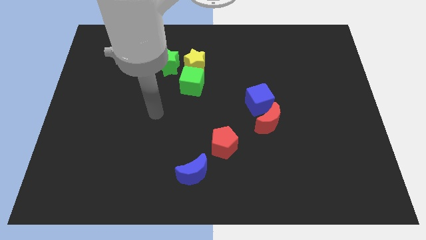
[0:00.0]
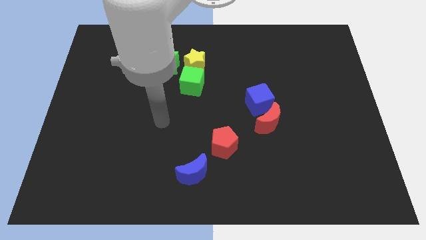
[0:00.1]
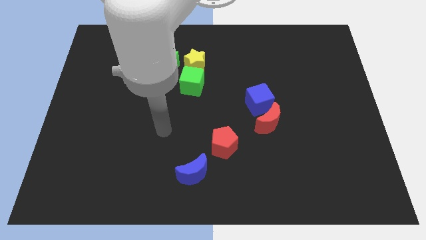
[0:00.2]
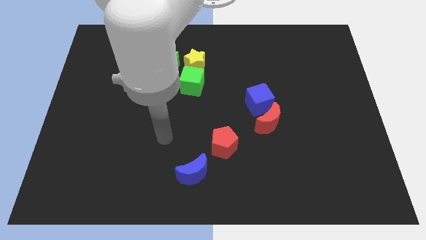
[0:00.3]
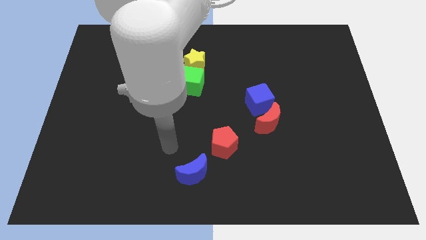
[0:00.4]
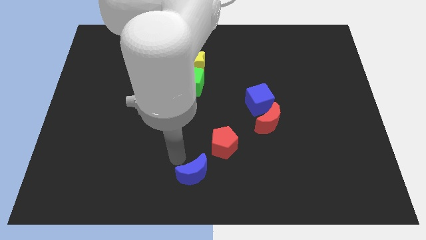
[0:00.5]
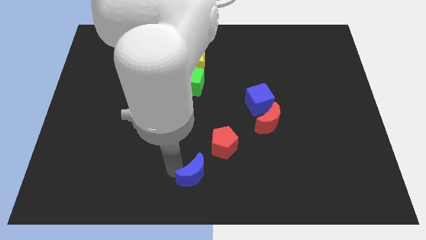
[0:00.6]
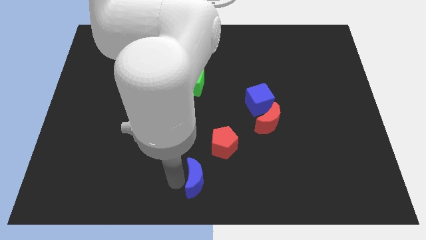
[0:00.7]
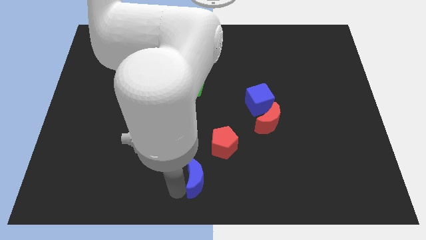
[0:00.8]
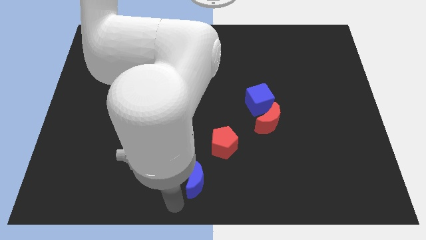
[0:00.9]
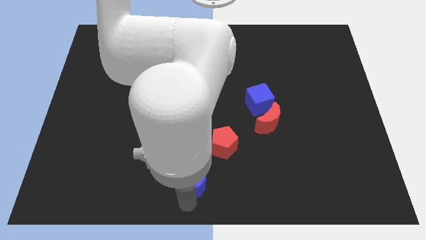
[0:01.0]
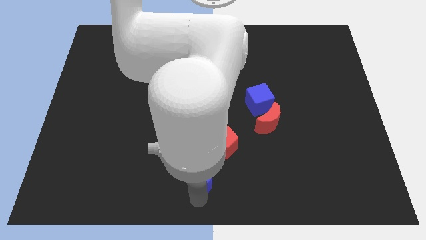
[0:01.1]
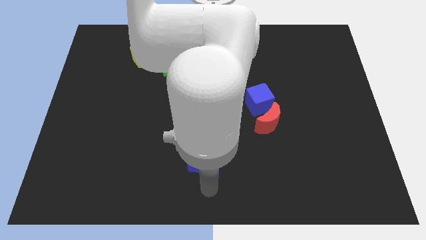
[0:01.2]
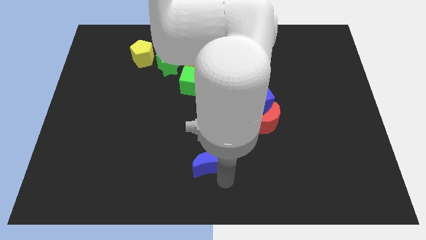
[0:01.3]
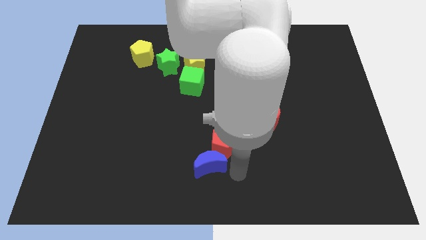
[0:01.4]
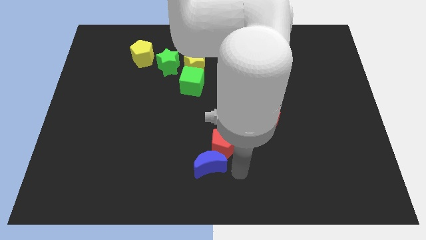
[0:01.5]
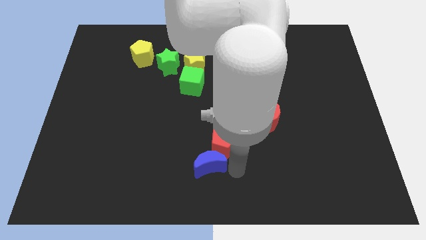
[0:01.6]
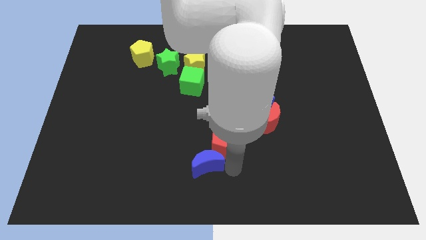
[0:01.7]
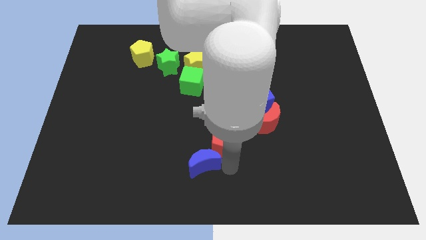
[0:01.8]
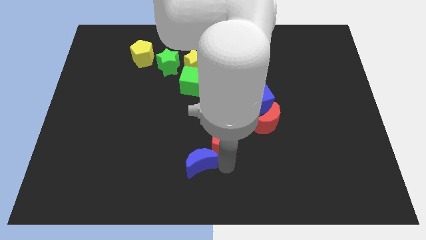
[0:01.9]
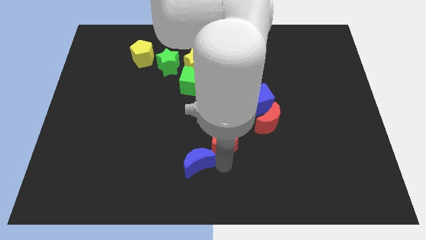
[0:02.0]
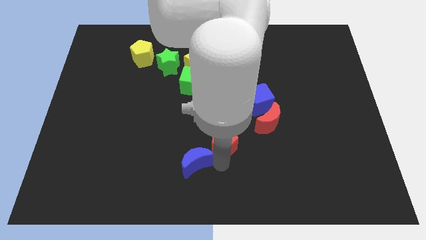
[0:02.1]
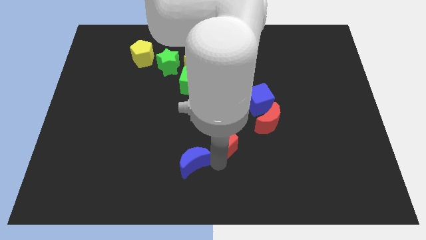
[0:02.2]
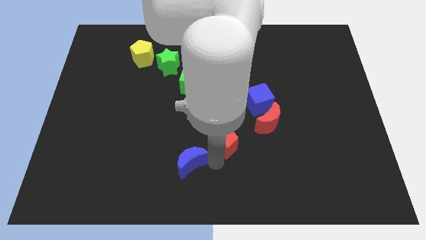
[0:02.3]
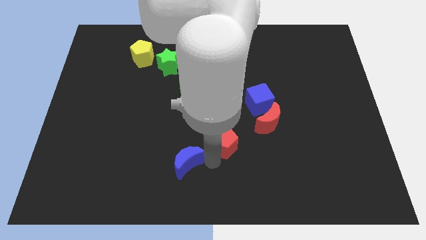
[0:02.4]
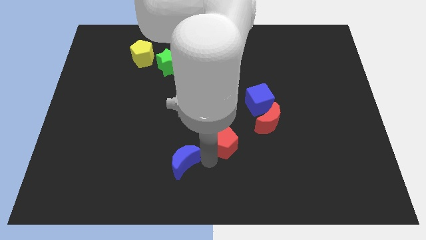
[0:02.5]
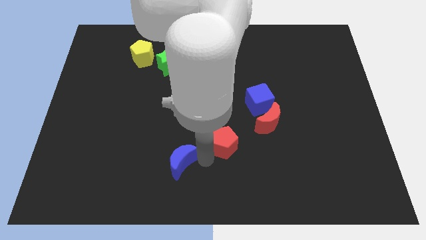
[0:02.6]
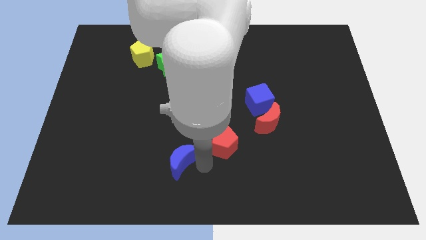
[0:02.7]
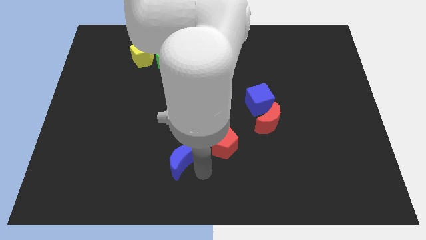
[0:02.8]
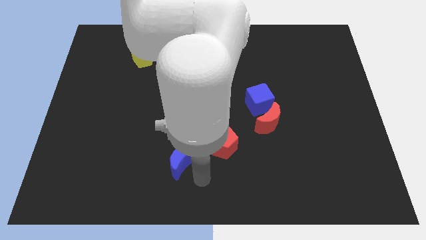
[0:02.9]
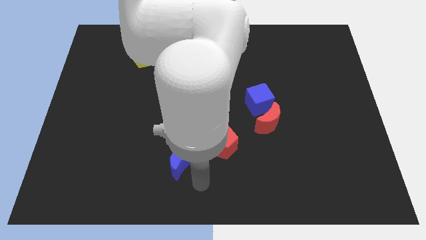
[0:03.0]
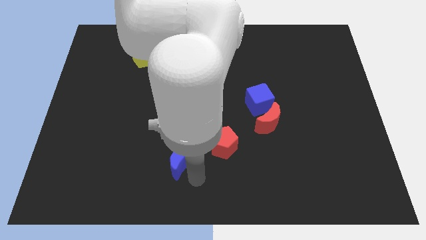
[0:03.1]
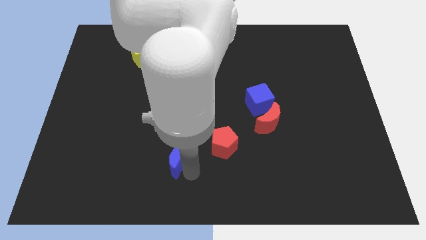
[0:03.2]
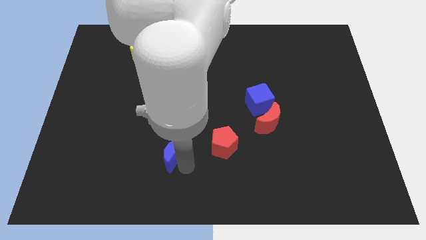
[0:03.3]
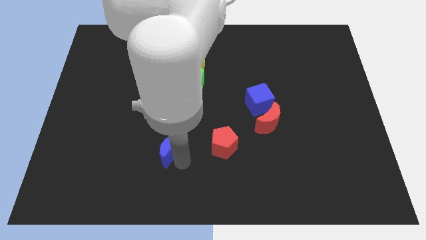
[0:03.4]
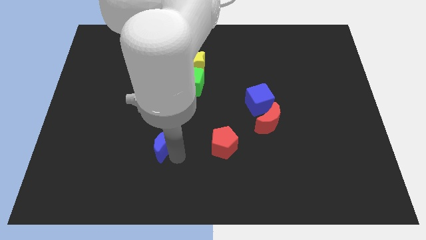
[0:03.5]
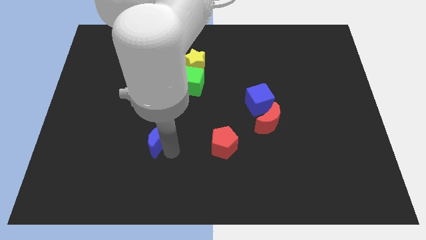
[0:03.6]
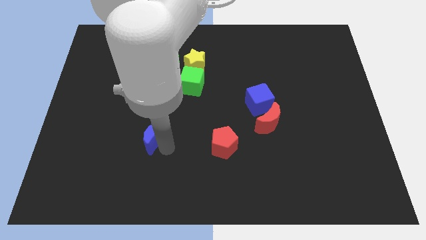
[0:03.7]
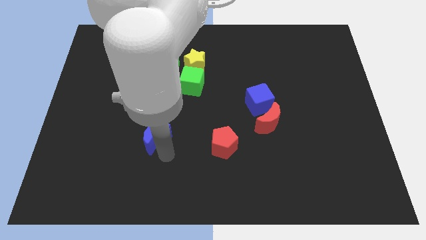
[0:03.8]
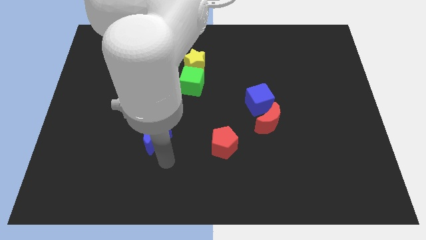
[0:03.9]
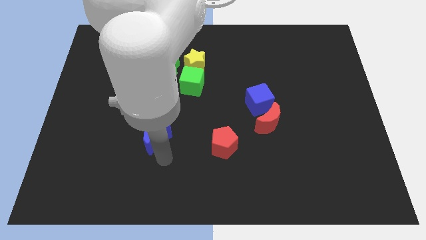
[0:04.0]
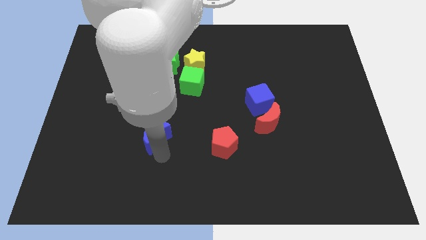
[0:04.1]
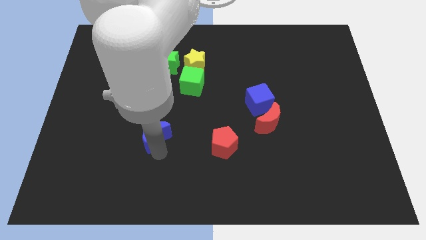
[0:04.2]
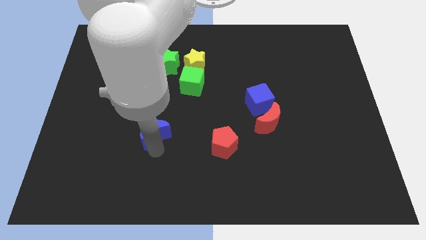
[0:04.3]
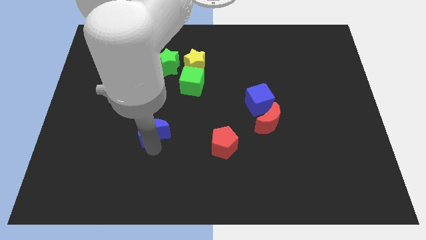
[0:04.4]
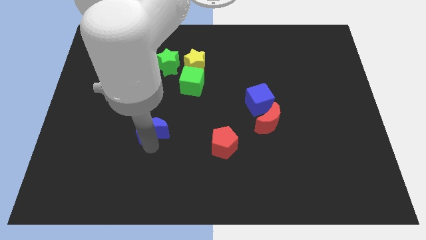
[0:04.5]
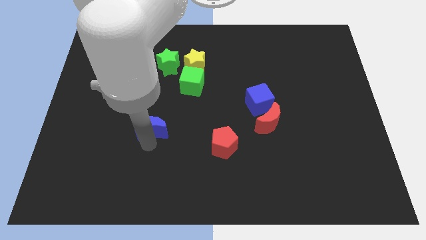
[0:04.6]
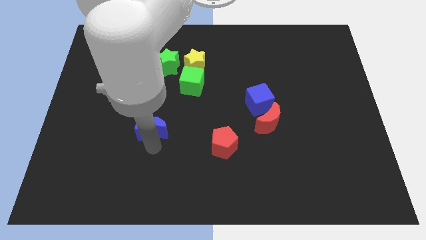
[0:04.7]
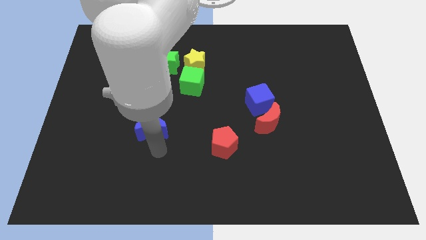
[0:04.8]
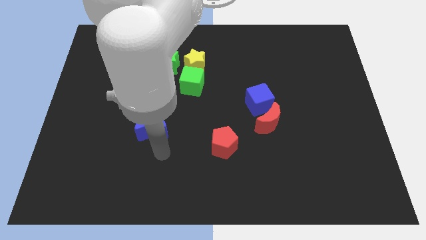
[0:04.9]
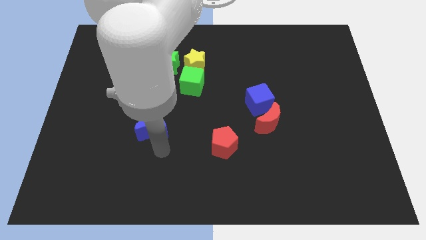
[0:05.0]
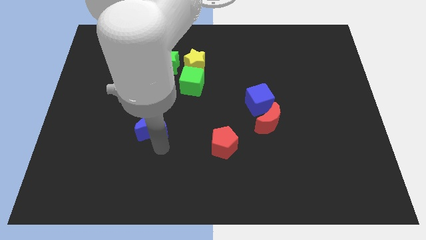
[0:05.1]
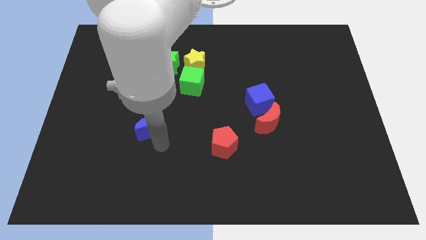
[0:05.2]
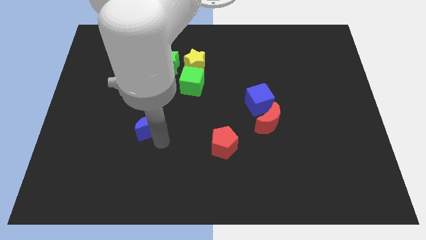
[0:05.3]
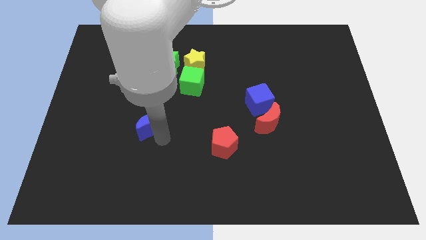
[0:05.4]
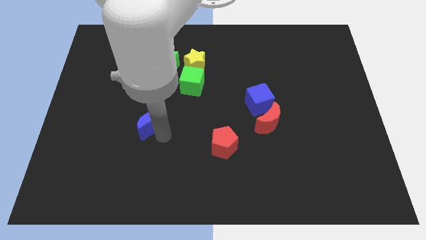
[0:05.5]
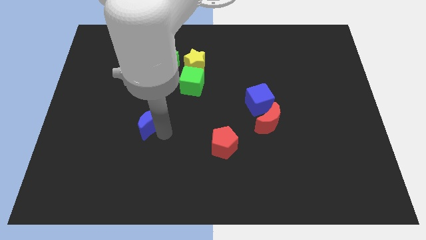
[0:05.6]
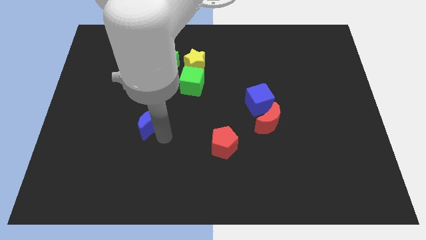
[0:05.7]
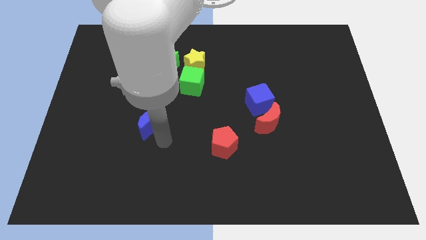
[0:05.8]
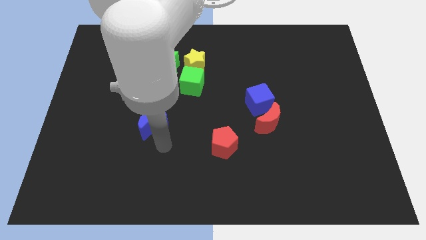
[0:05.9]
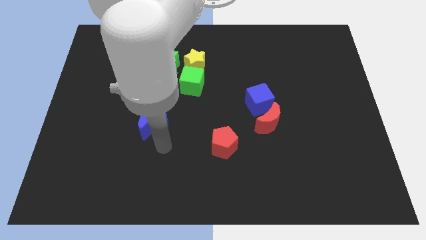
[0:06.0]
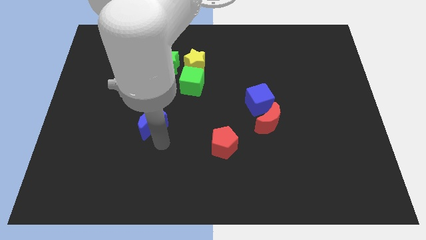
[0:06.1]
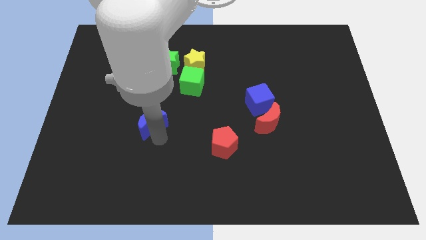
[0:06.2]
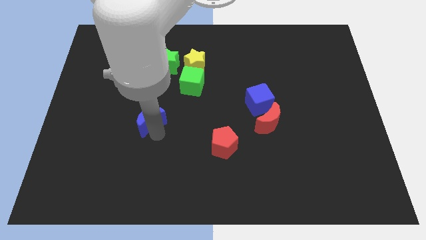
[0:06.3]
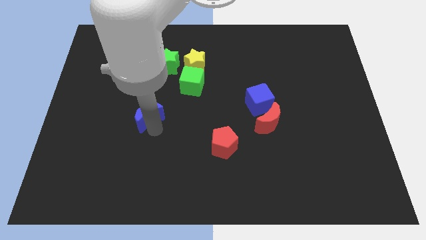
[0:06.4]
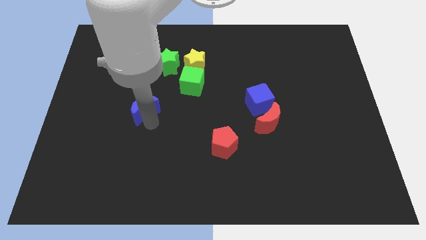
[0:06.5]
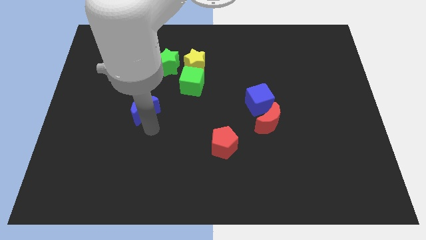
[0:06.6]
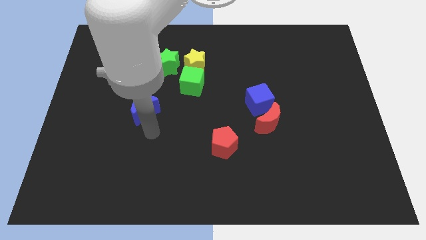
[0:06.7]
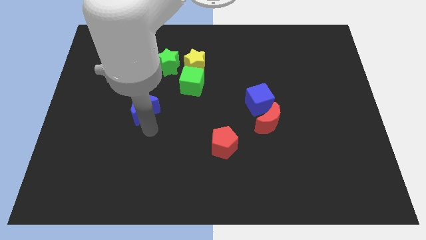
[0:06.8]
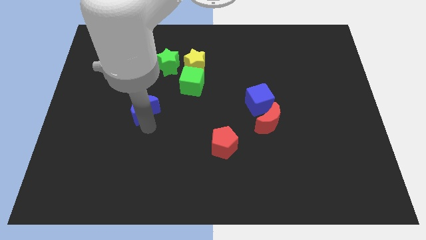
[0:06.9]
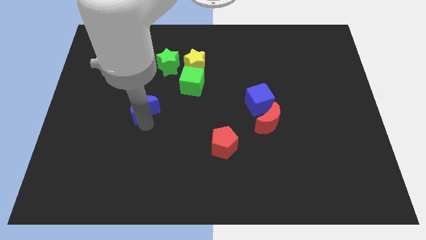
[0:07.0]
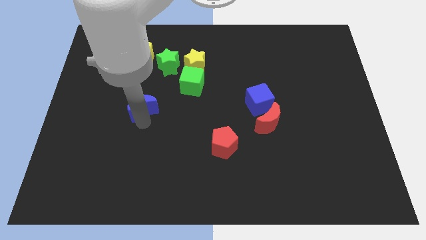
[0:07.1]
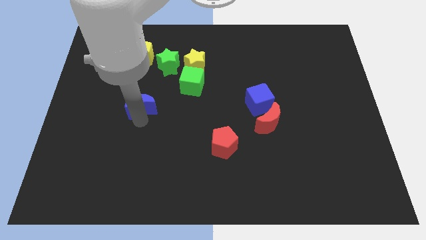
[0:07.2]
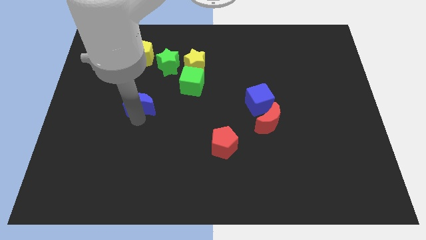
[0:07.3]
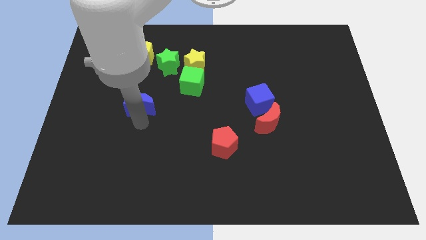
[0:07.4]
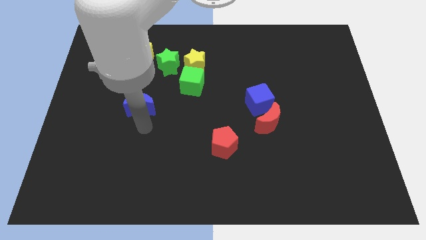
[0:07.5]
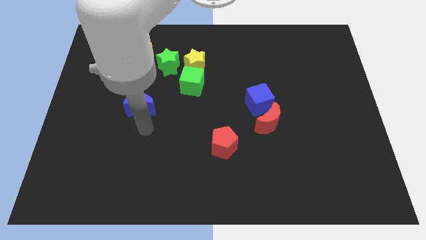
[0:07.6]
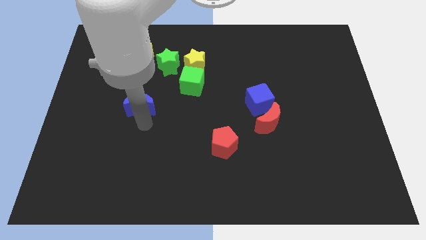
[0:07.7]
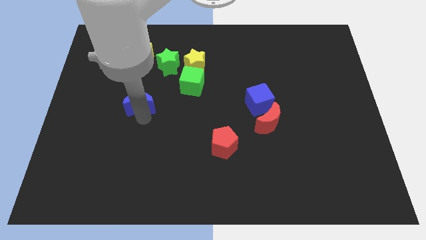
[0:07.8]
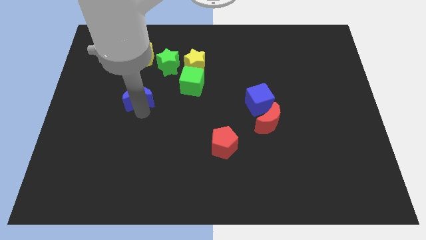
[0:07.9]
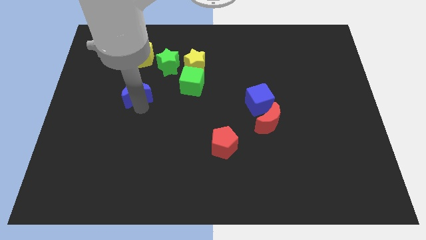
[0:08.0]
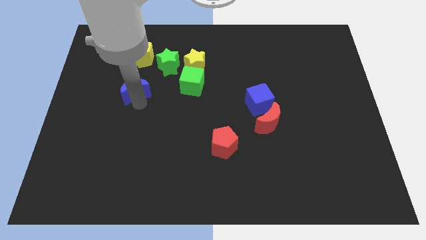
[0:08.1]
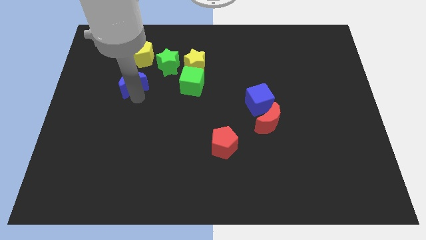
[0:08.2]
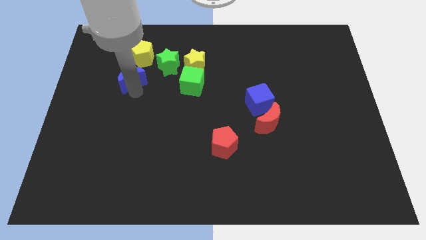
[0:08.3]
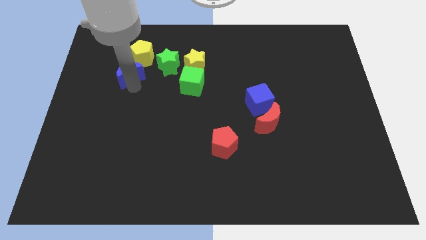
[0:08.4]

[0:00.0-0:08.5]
move the blue moon just left of the green star
